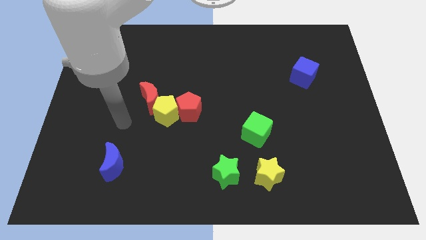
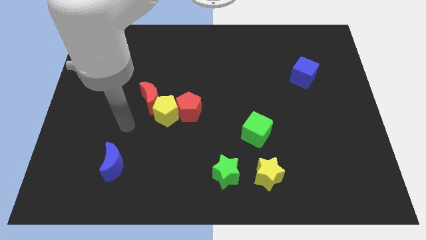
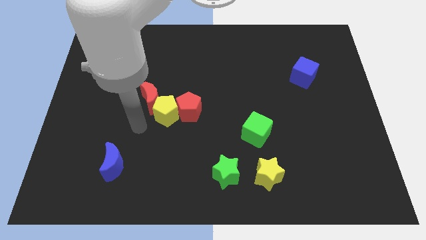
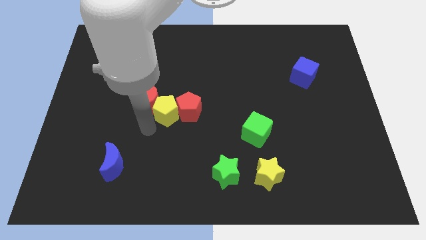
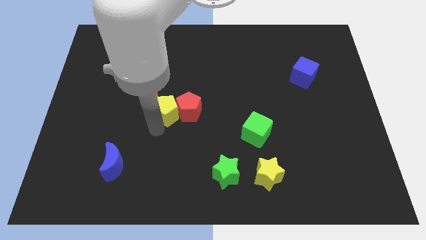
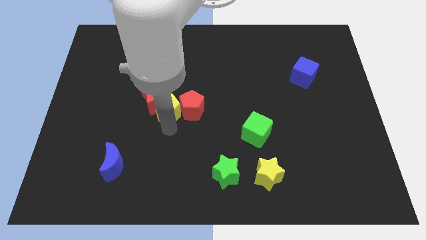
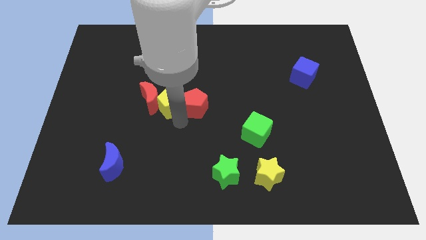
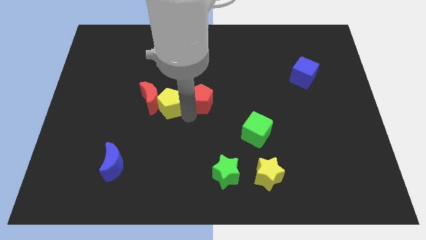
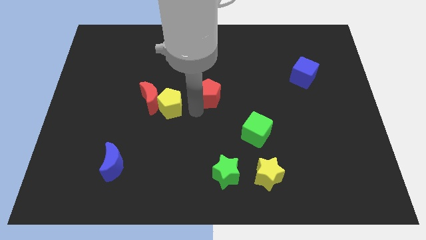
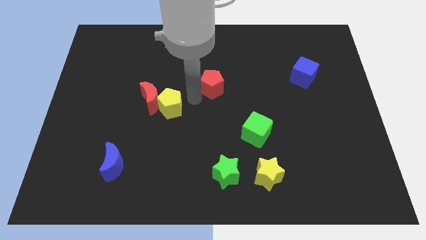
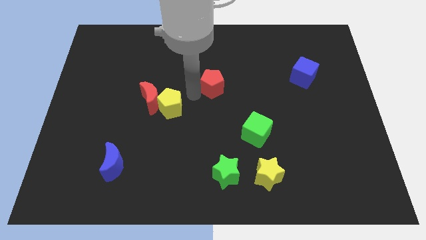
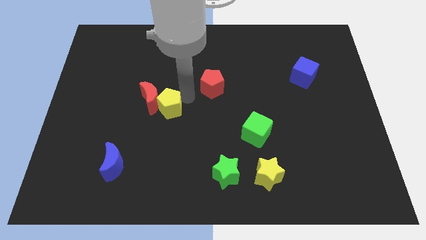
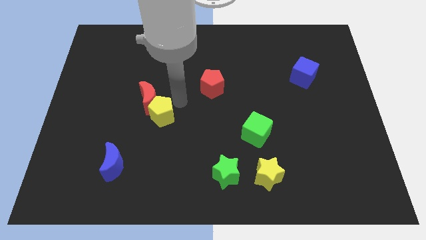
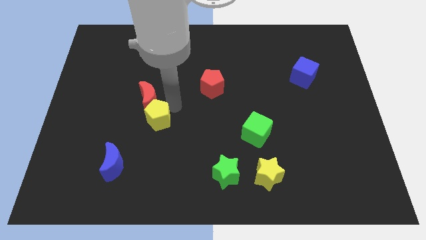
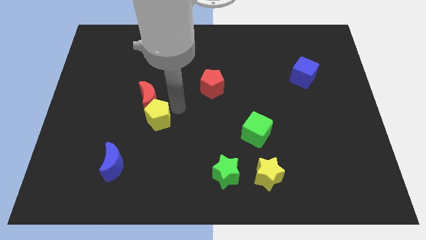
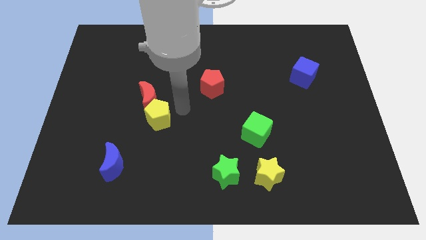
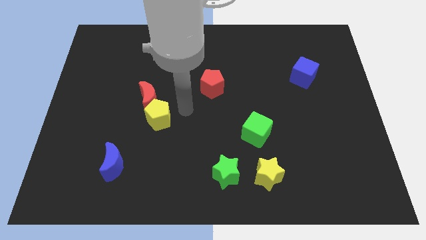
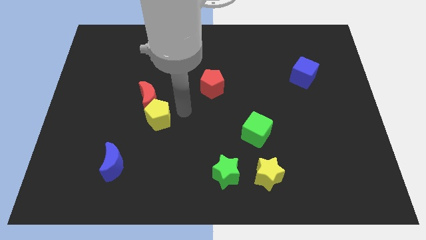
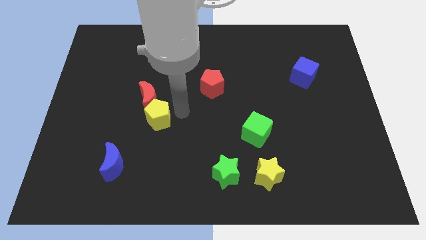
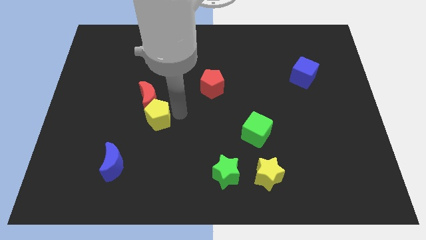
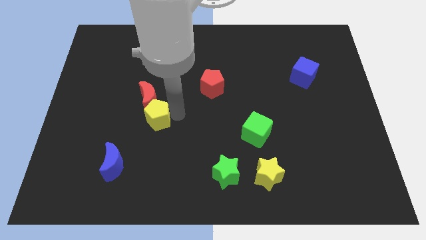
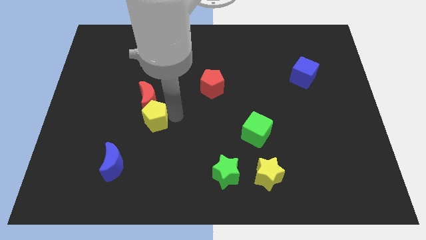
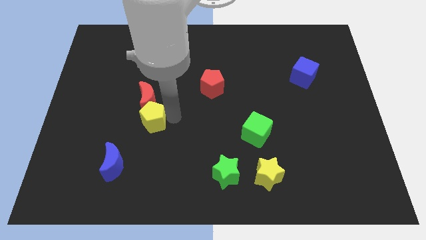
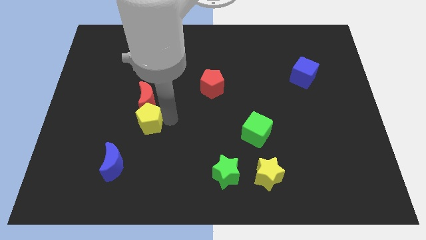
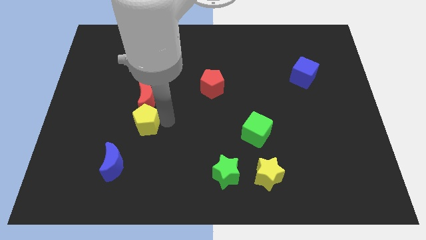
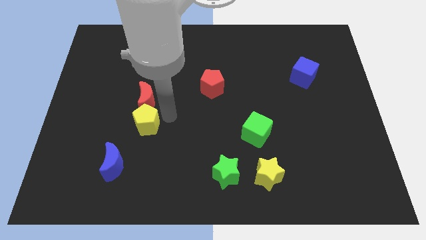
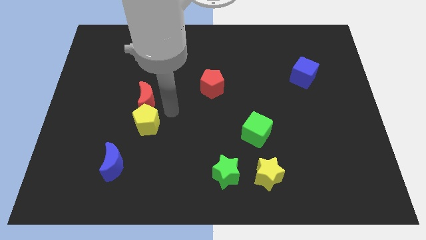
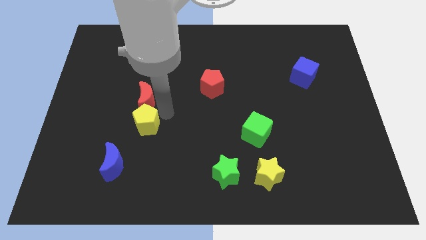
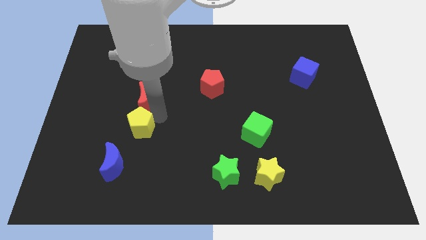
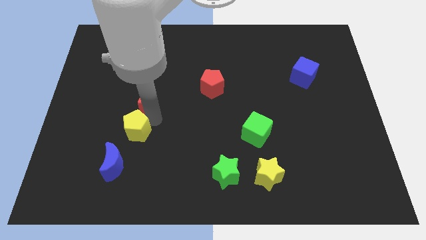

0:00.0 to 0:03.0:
push the yellow pentagon a little down and then to the left

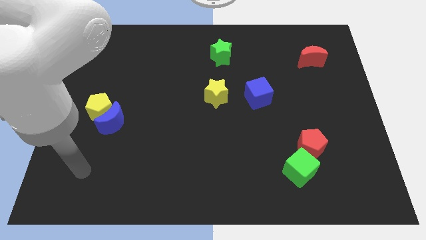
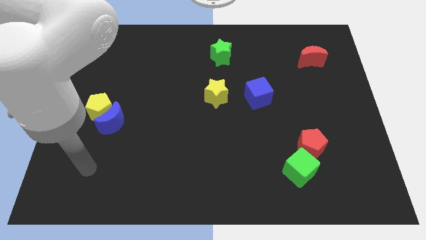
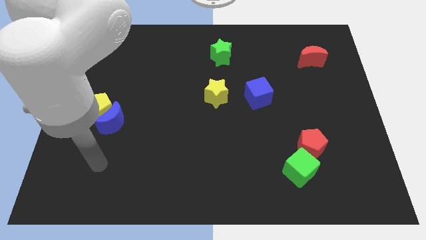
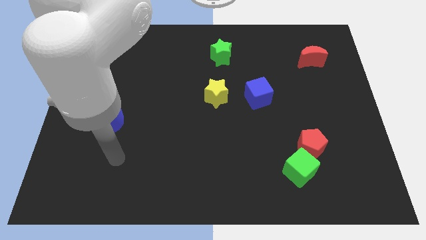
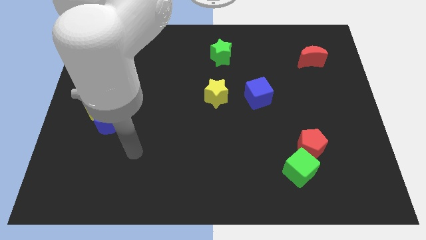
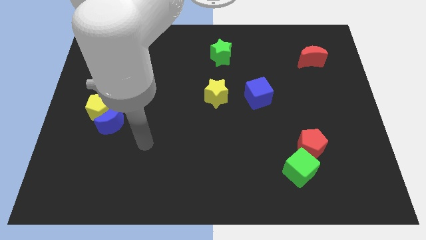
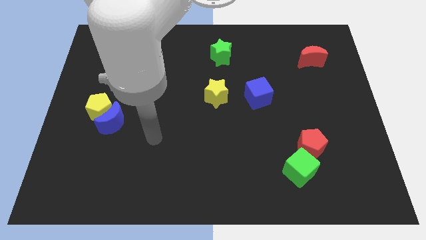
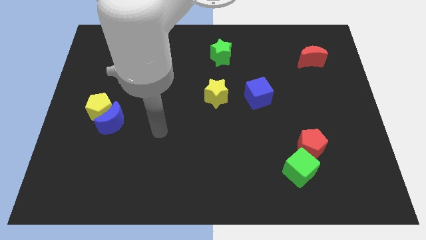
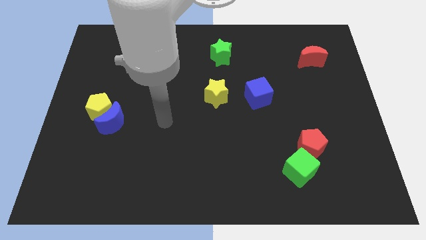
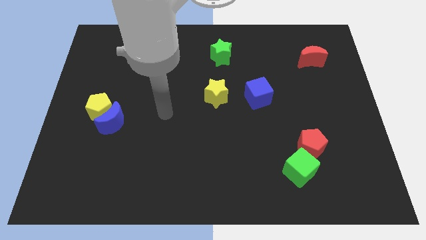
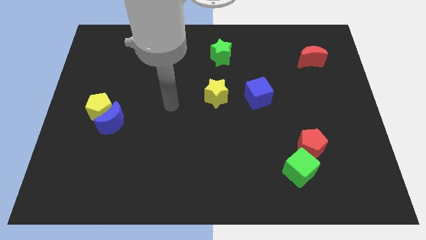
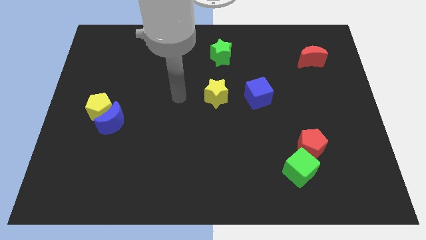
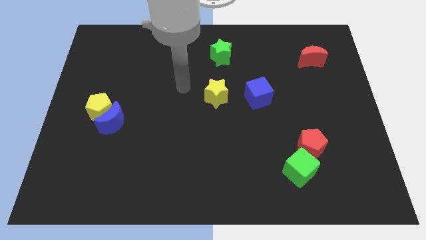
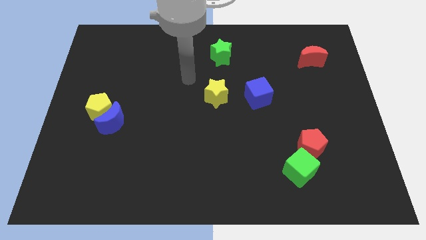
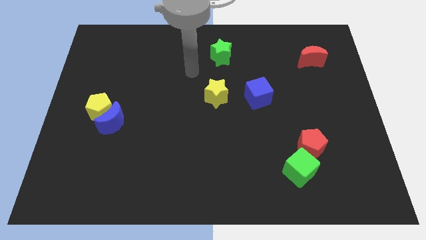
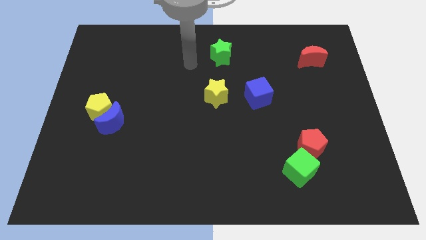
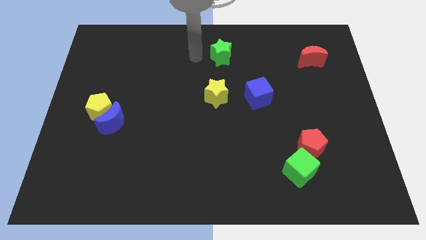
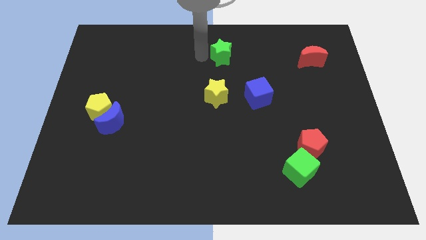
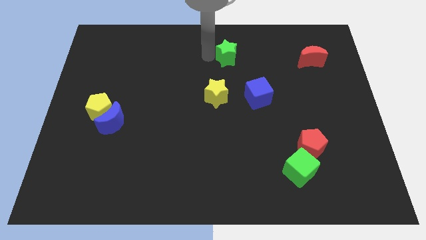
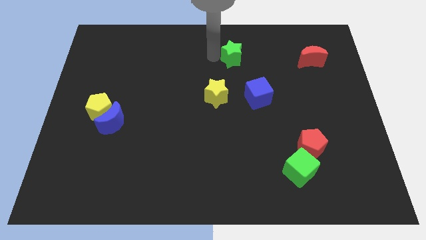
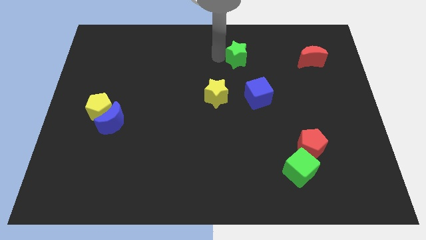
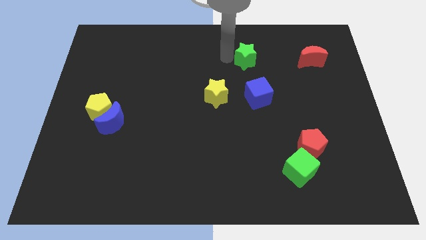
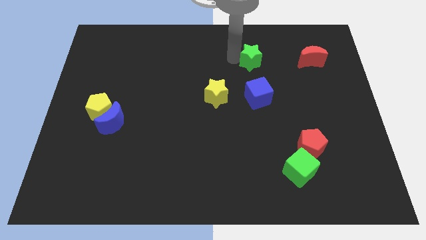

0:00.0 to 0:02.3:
push the green star somewhat right

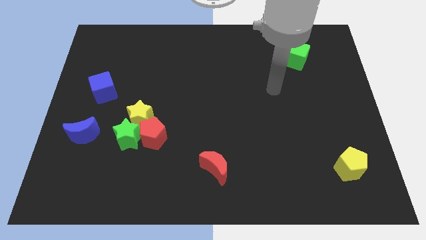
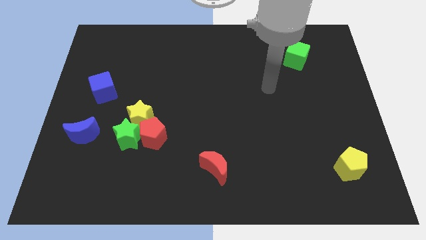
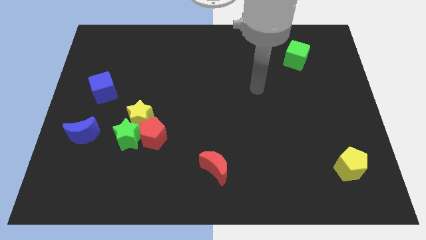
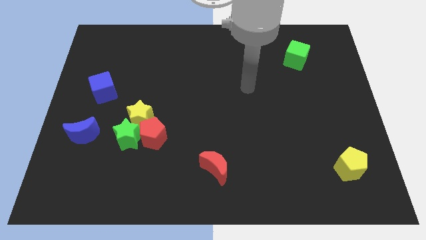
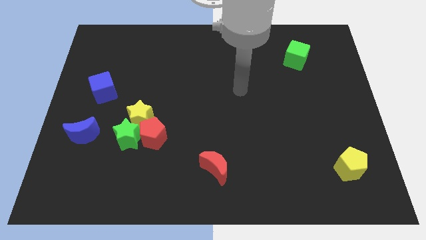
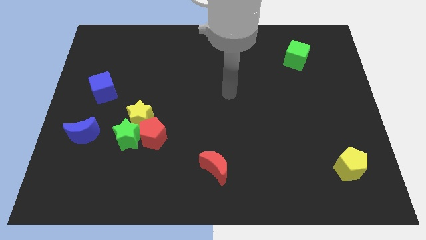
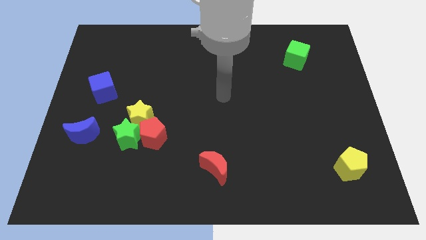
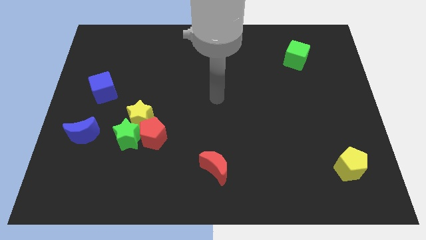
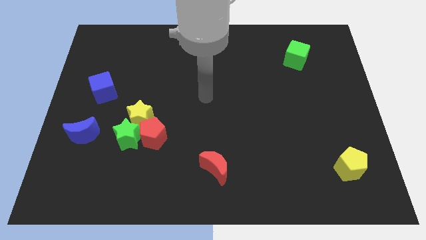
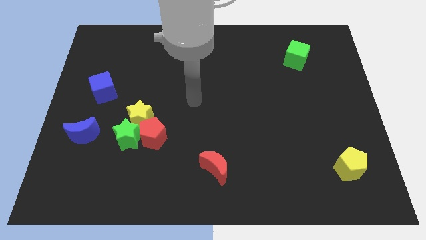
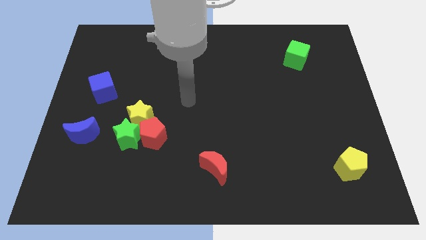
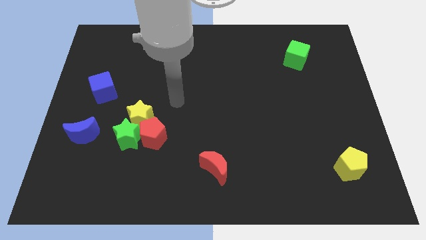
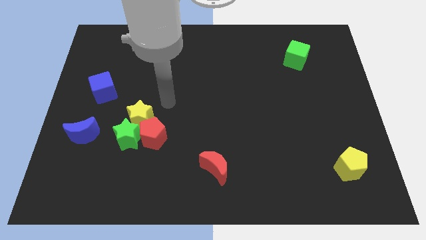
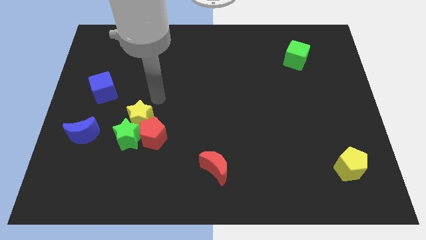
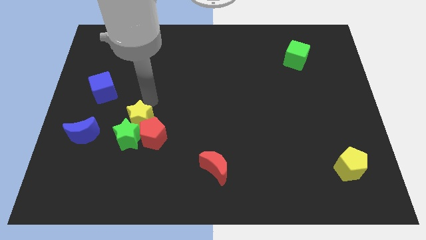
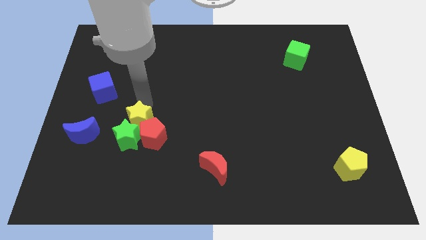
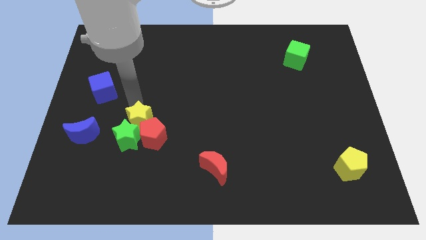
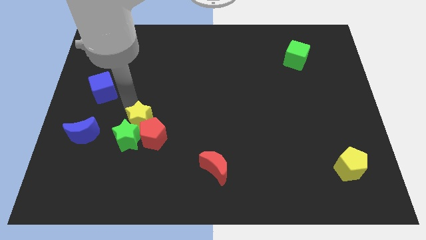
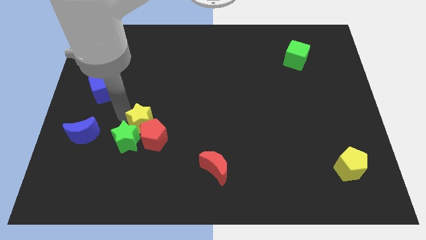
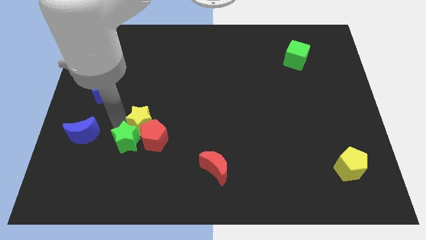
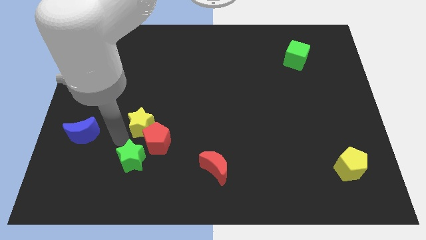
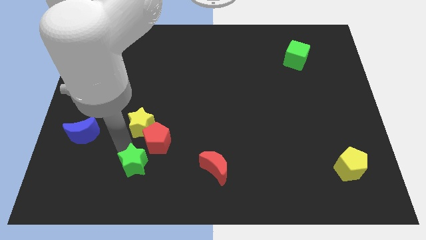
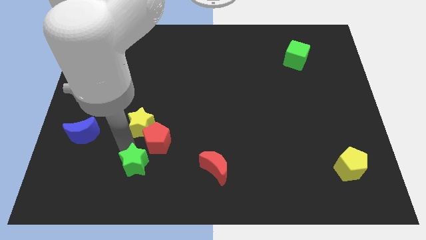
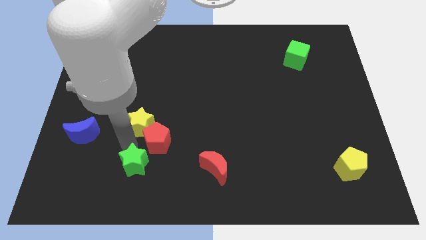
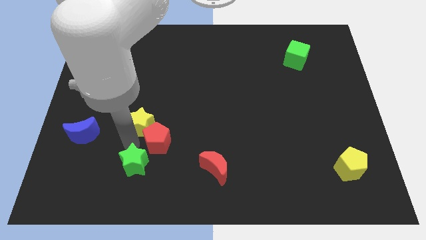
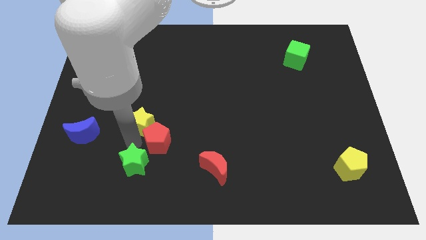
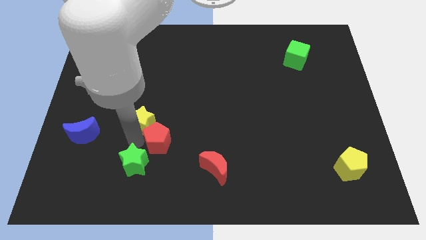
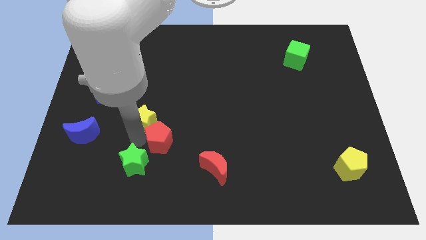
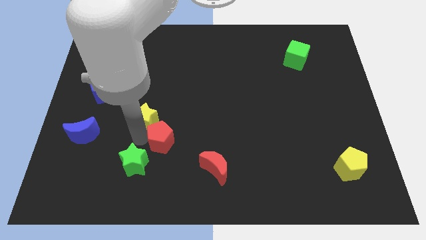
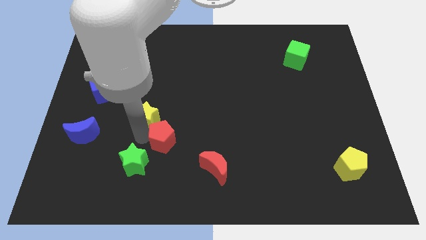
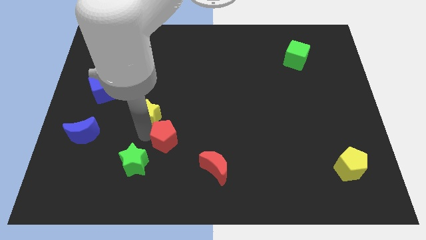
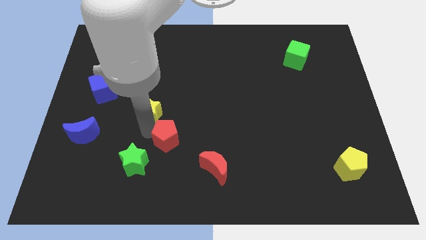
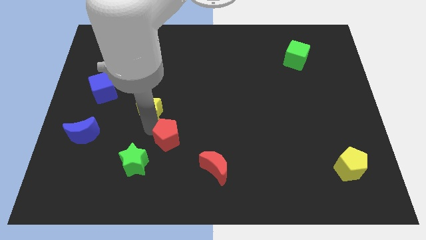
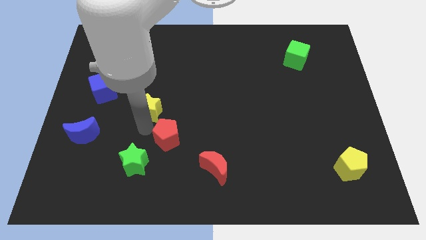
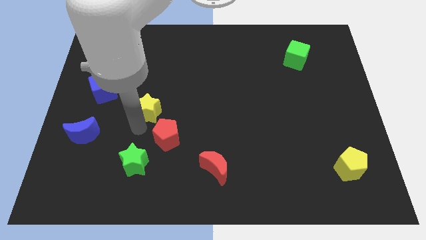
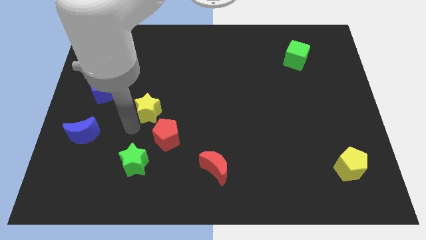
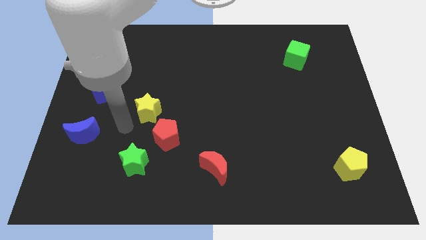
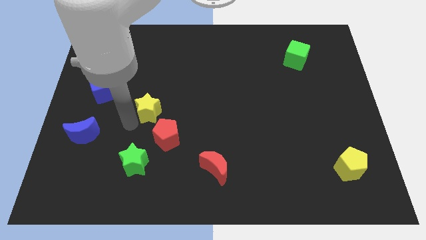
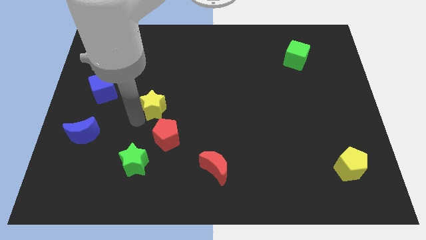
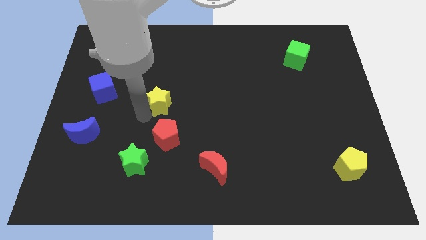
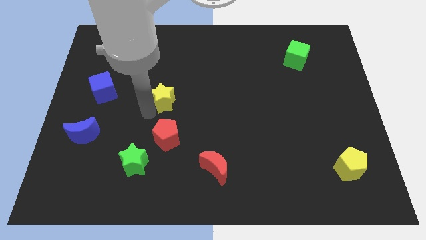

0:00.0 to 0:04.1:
move the yellow star up and to the right diagonally slightly
